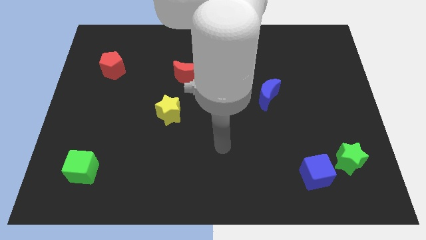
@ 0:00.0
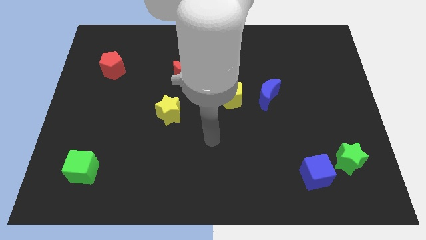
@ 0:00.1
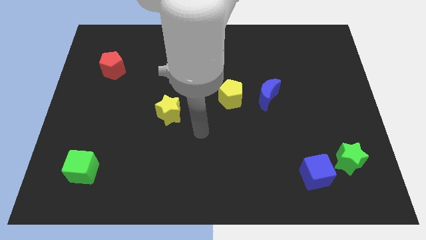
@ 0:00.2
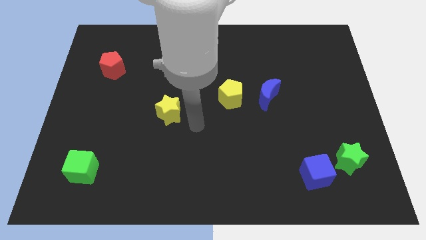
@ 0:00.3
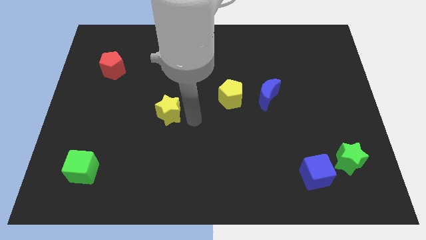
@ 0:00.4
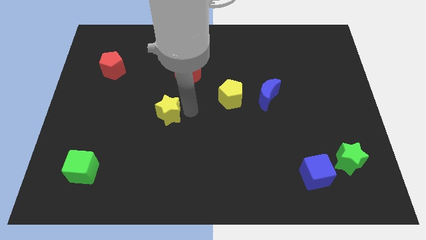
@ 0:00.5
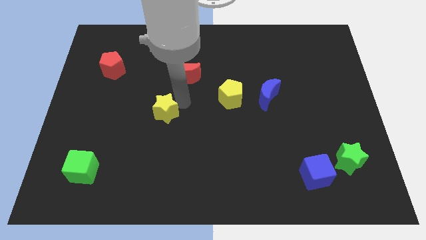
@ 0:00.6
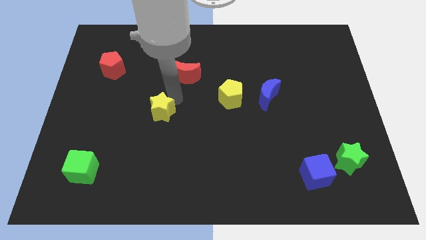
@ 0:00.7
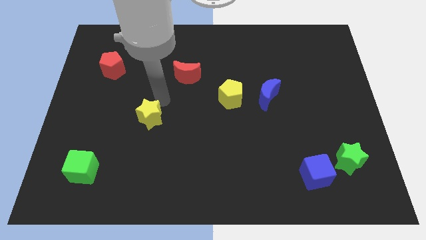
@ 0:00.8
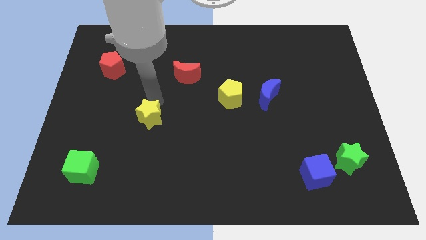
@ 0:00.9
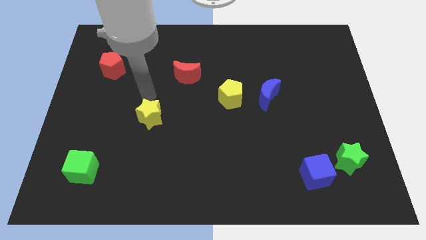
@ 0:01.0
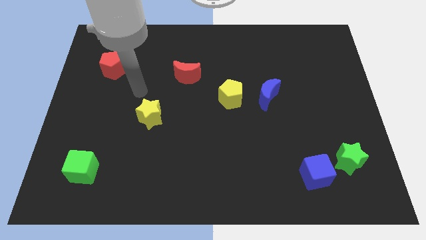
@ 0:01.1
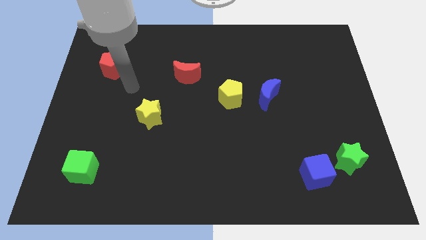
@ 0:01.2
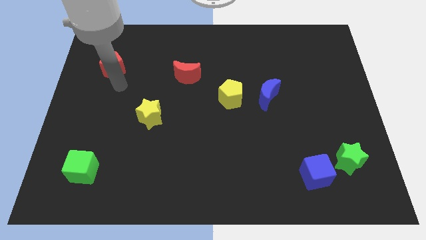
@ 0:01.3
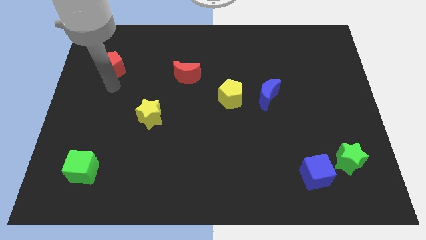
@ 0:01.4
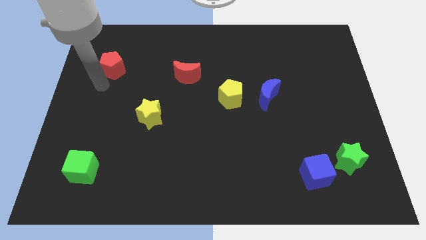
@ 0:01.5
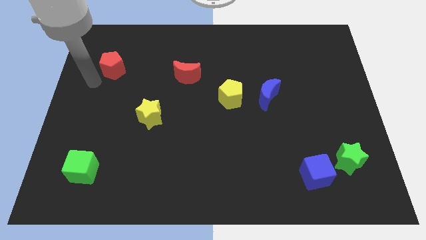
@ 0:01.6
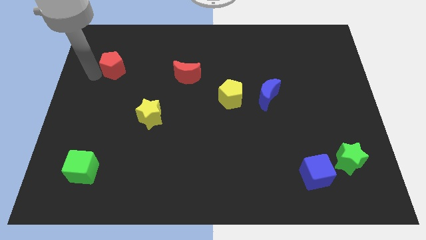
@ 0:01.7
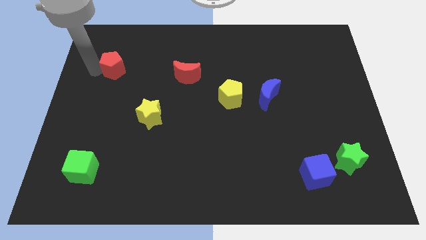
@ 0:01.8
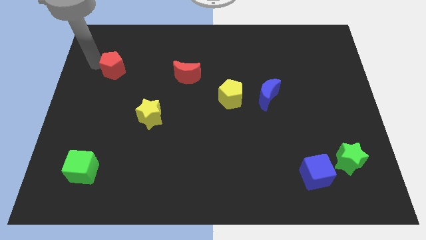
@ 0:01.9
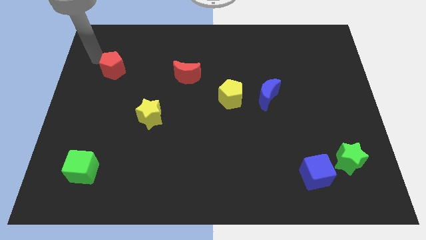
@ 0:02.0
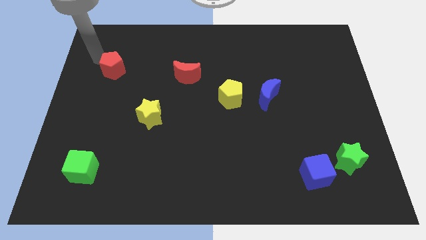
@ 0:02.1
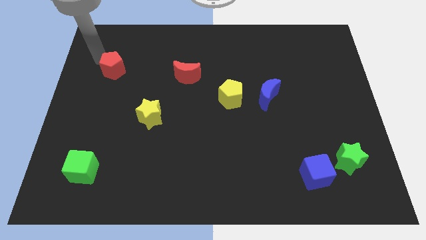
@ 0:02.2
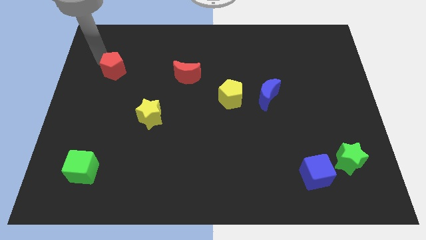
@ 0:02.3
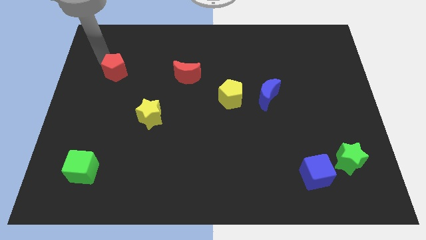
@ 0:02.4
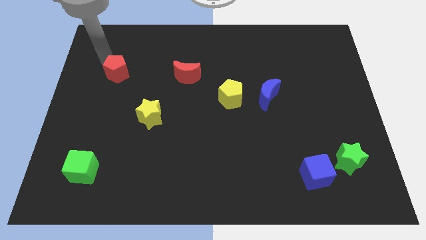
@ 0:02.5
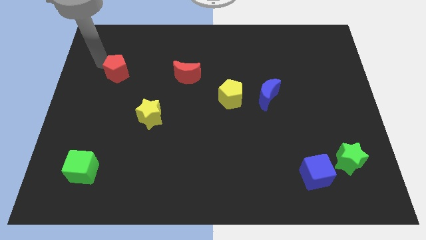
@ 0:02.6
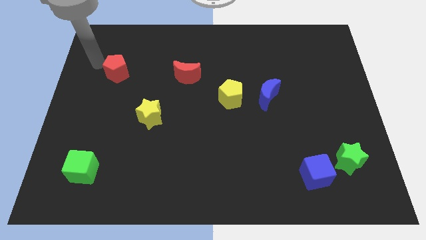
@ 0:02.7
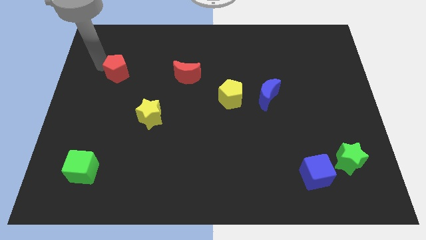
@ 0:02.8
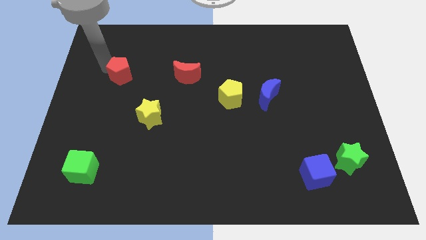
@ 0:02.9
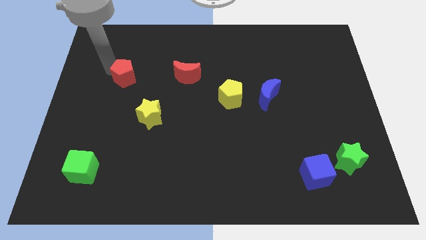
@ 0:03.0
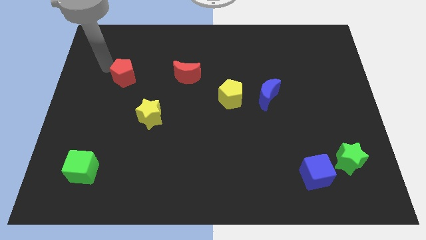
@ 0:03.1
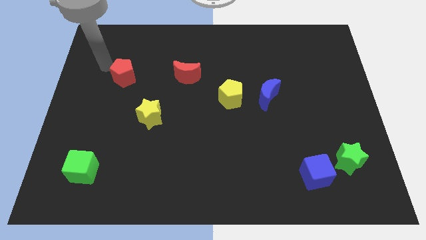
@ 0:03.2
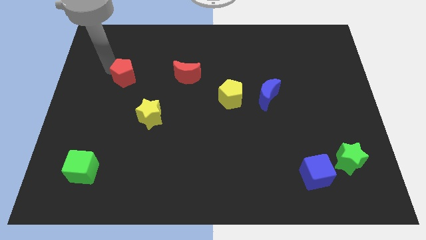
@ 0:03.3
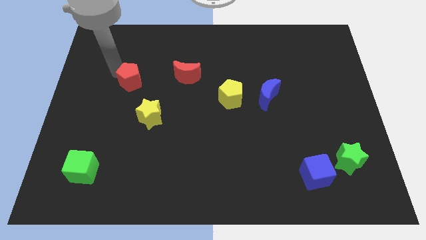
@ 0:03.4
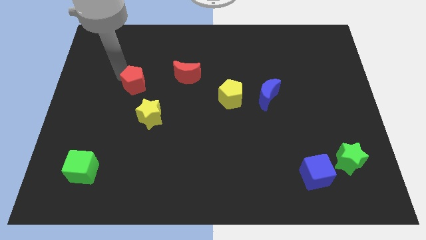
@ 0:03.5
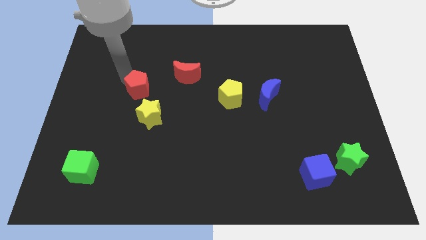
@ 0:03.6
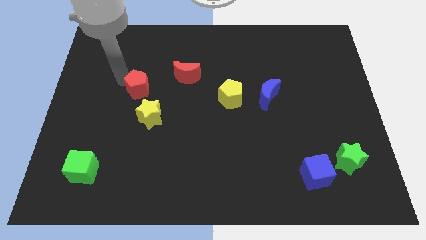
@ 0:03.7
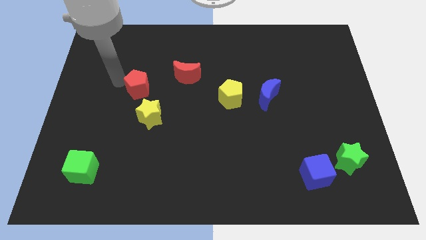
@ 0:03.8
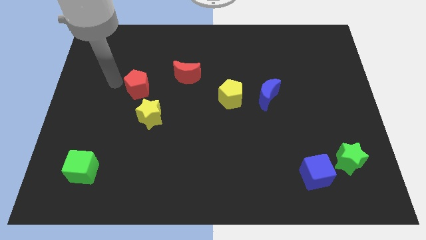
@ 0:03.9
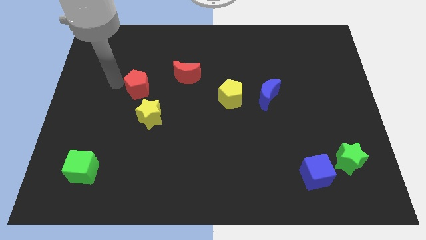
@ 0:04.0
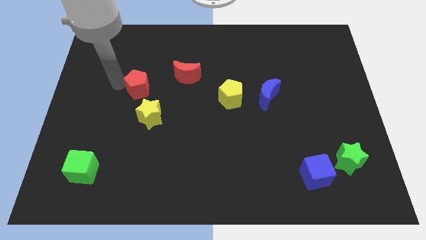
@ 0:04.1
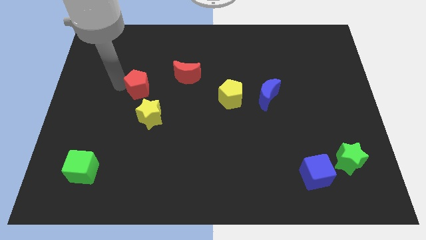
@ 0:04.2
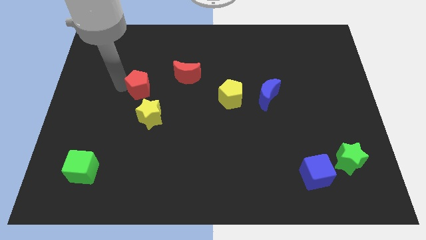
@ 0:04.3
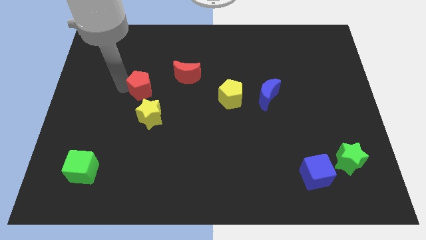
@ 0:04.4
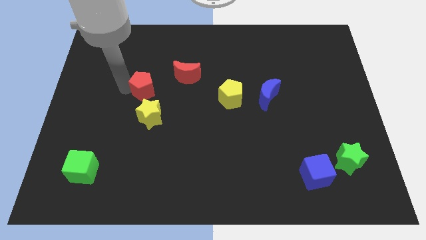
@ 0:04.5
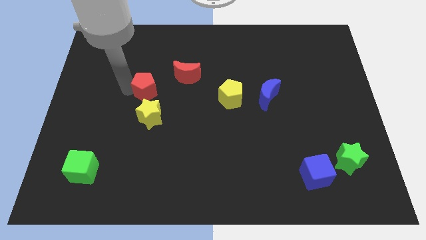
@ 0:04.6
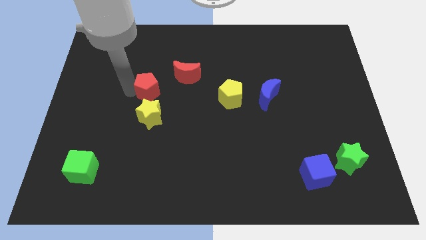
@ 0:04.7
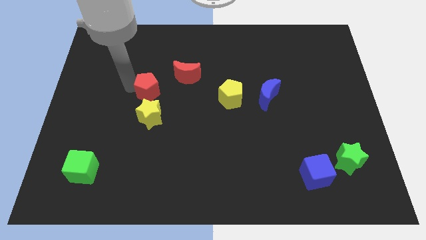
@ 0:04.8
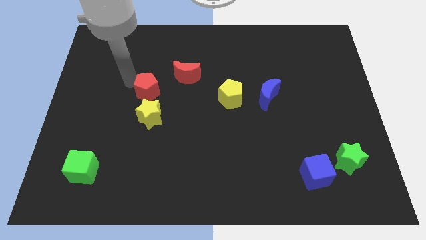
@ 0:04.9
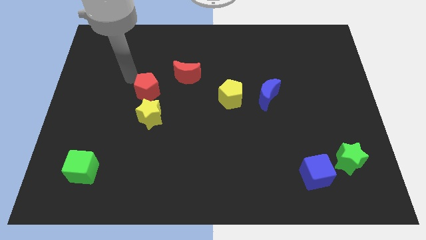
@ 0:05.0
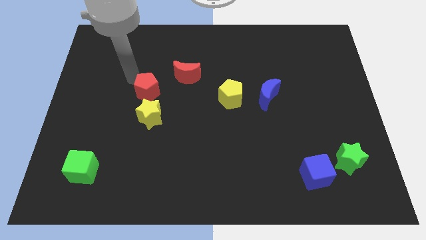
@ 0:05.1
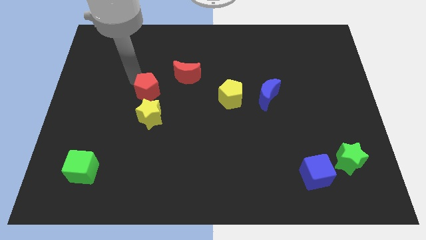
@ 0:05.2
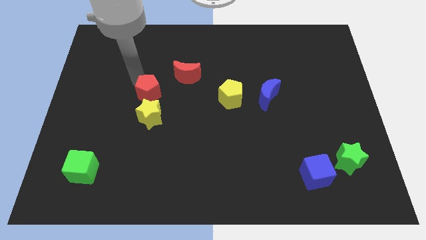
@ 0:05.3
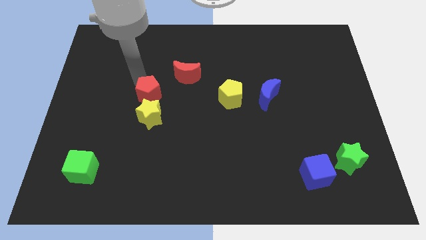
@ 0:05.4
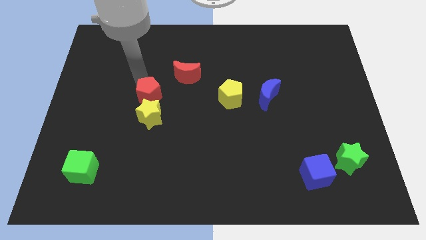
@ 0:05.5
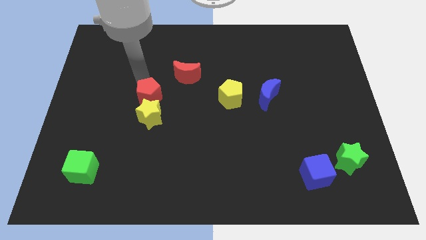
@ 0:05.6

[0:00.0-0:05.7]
put the red pentagon to the yellow star

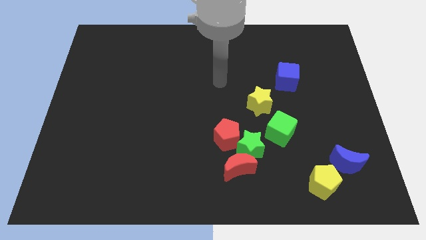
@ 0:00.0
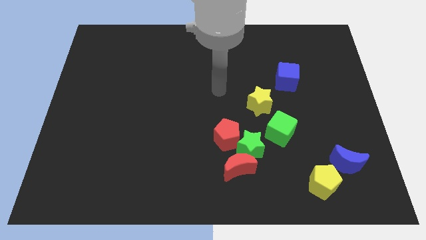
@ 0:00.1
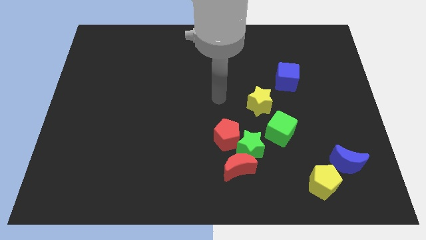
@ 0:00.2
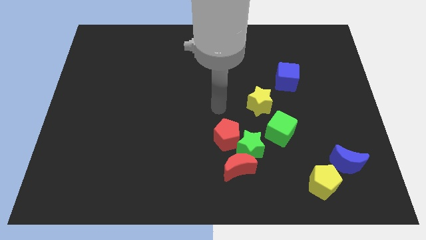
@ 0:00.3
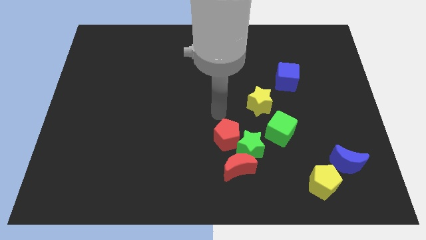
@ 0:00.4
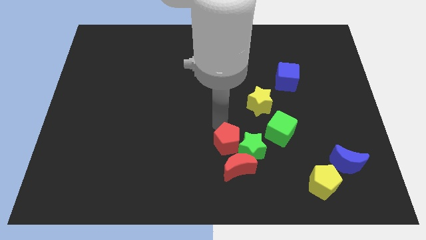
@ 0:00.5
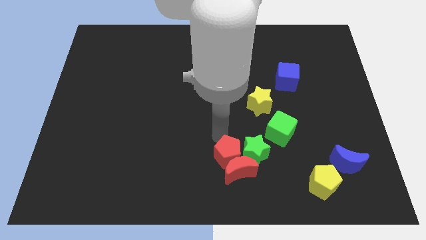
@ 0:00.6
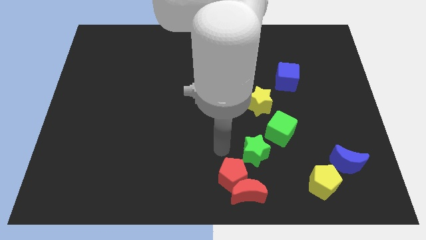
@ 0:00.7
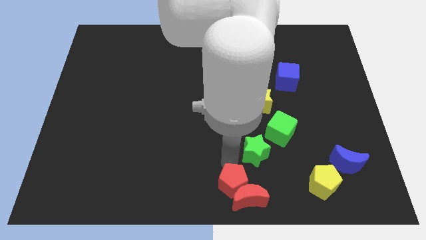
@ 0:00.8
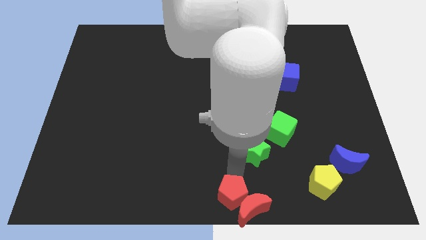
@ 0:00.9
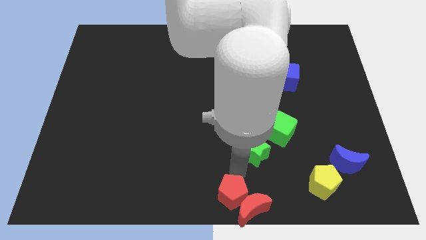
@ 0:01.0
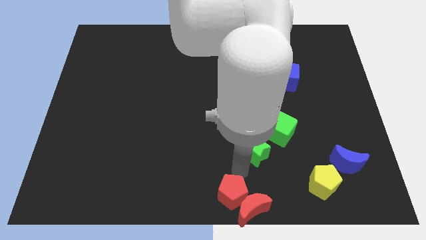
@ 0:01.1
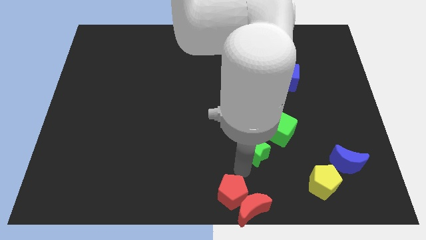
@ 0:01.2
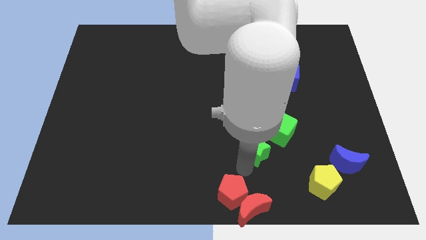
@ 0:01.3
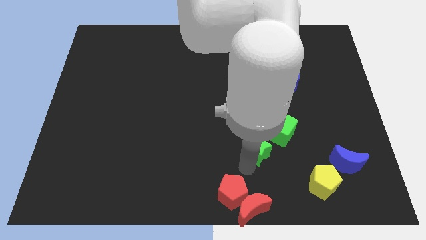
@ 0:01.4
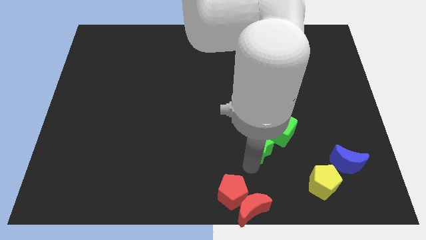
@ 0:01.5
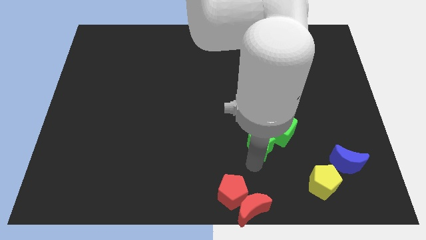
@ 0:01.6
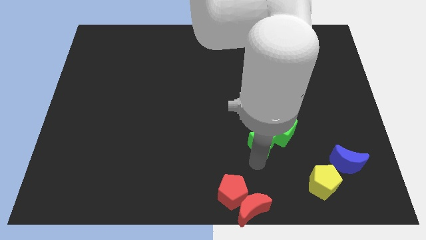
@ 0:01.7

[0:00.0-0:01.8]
push the green star to the green cube
